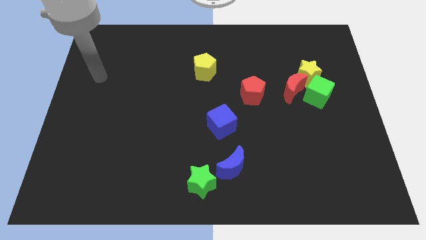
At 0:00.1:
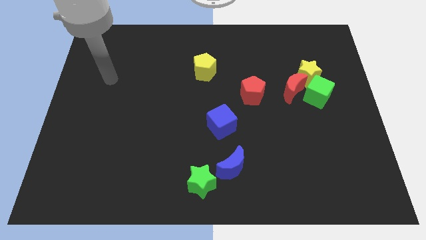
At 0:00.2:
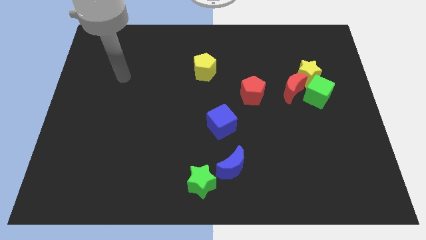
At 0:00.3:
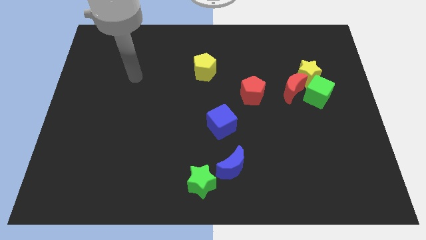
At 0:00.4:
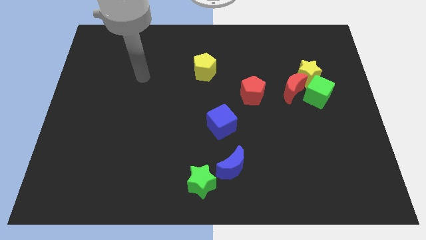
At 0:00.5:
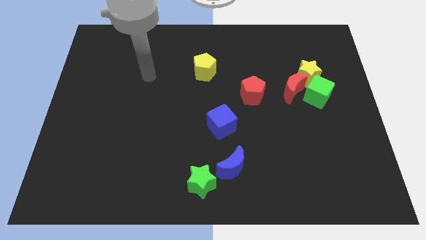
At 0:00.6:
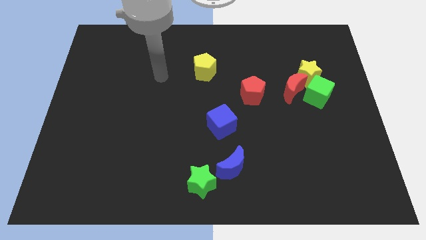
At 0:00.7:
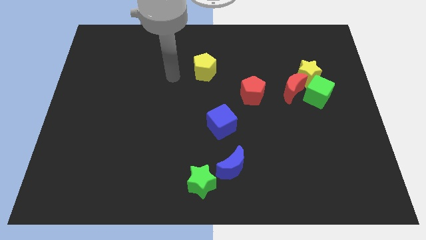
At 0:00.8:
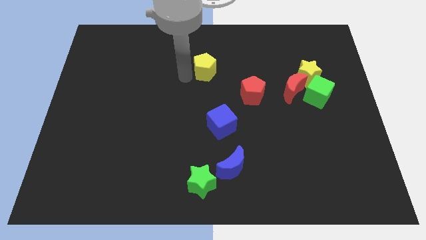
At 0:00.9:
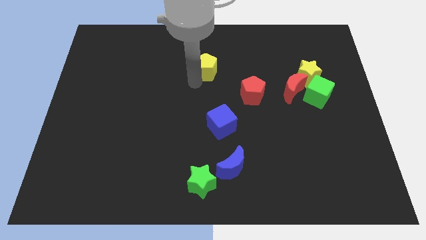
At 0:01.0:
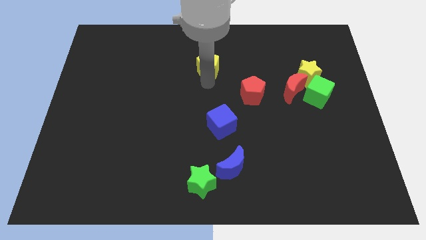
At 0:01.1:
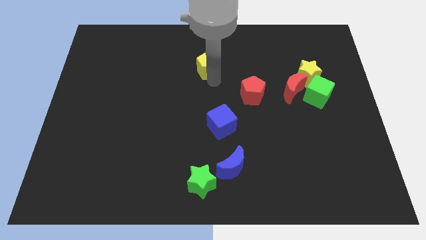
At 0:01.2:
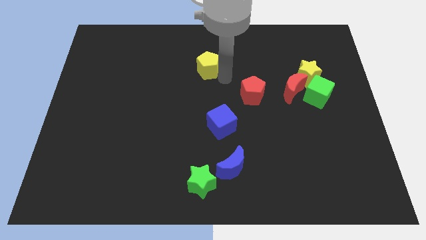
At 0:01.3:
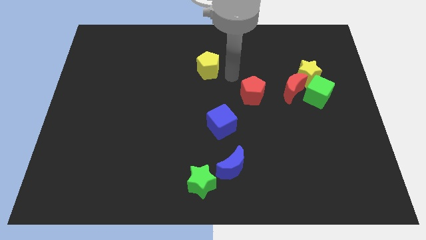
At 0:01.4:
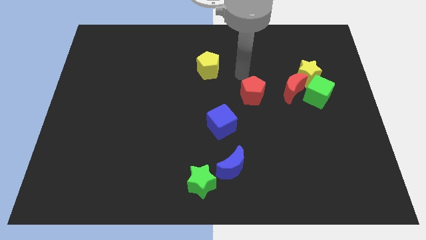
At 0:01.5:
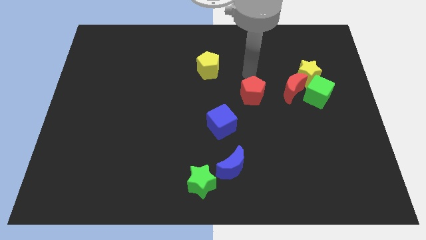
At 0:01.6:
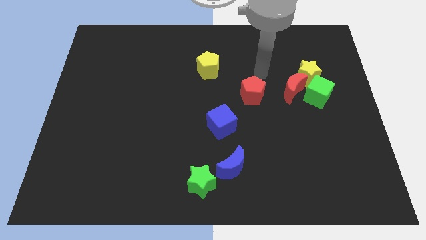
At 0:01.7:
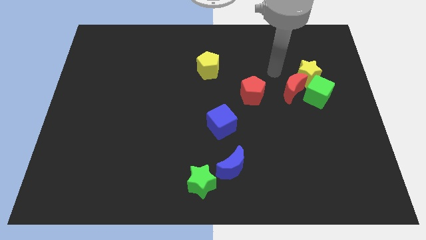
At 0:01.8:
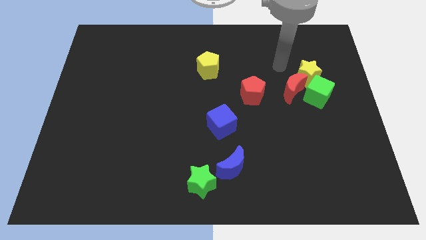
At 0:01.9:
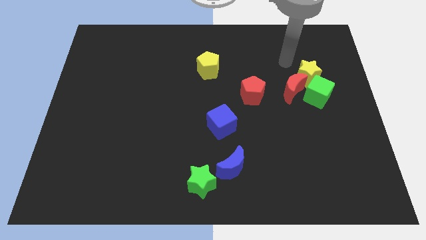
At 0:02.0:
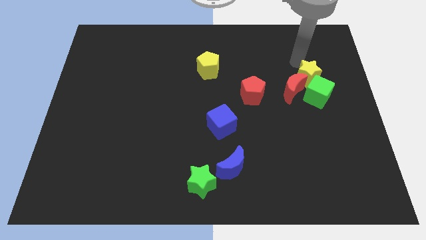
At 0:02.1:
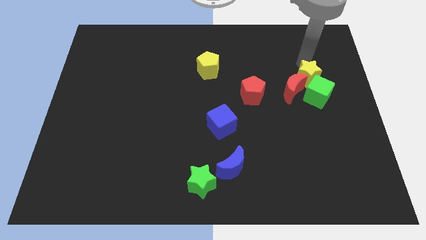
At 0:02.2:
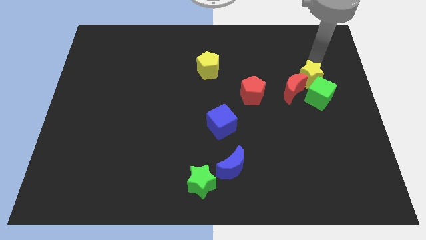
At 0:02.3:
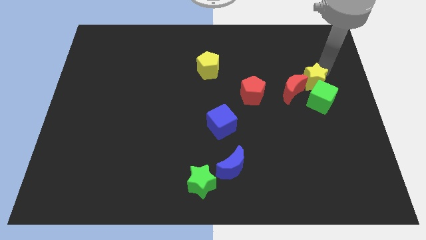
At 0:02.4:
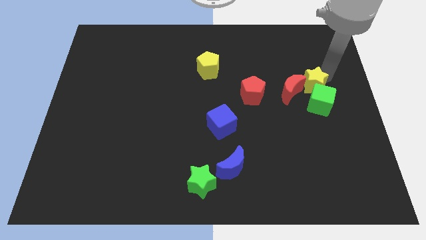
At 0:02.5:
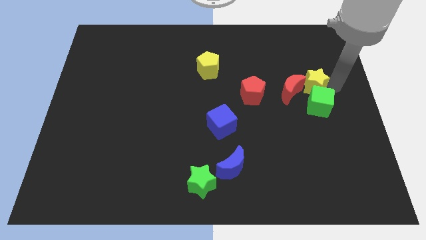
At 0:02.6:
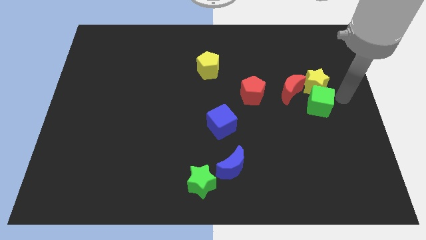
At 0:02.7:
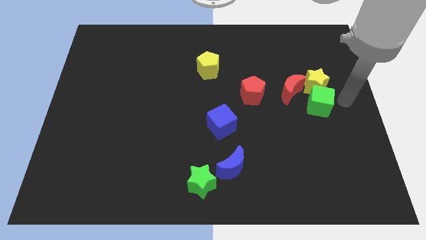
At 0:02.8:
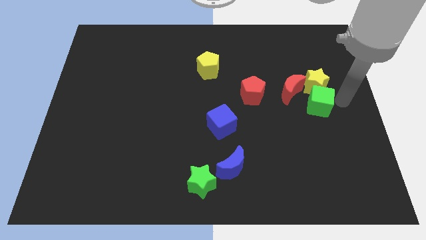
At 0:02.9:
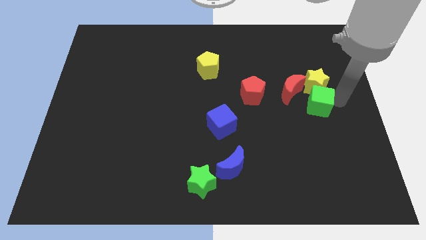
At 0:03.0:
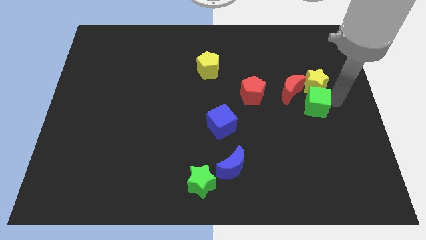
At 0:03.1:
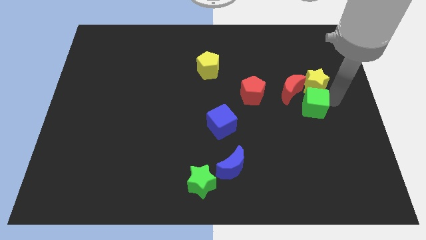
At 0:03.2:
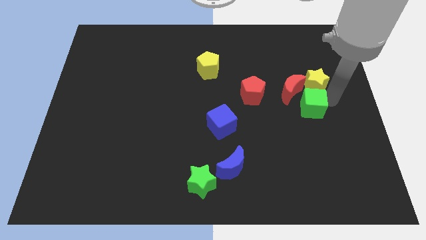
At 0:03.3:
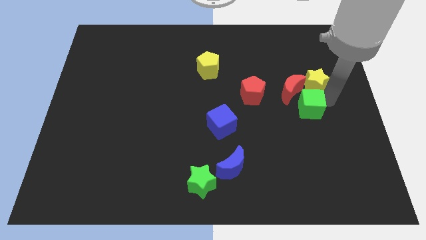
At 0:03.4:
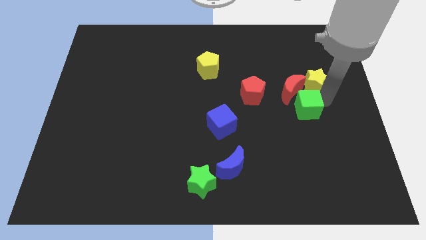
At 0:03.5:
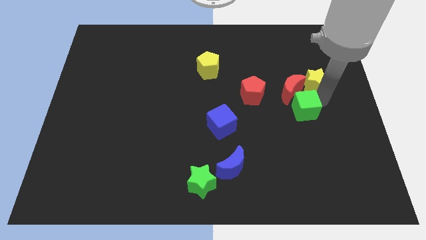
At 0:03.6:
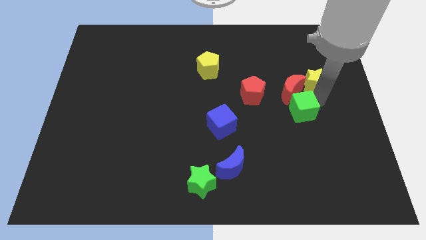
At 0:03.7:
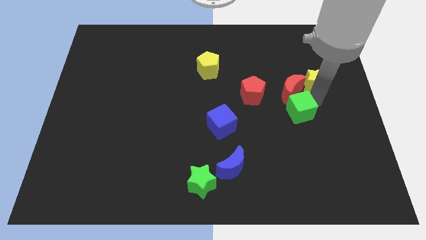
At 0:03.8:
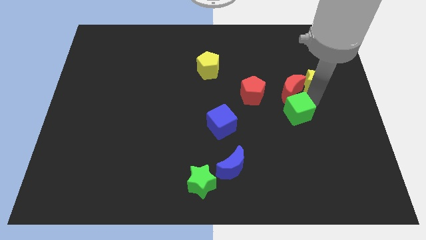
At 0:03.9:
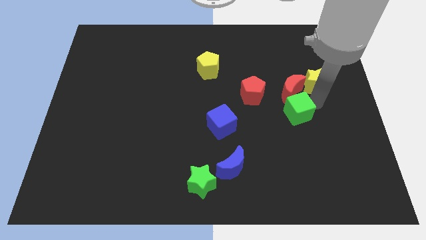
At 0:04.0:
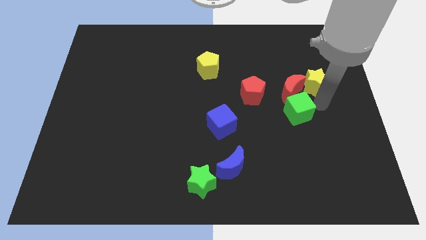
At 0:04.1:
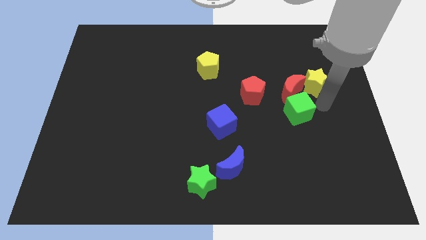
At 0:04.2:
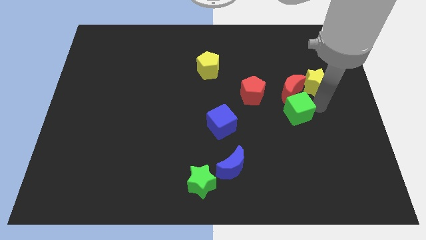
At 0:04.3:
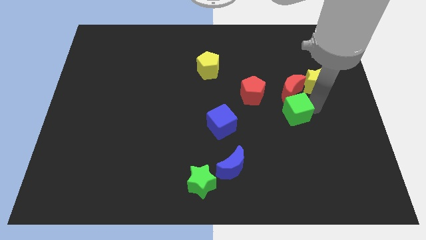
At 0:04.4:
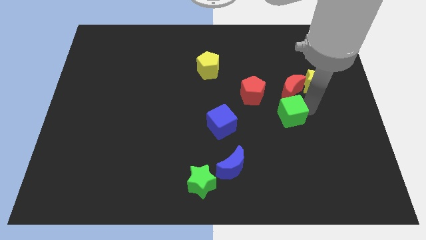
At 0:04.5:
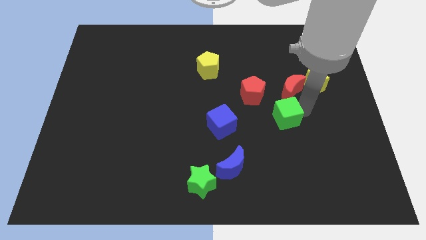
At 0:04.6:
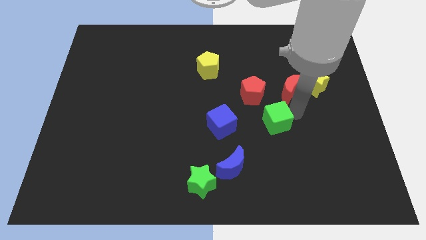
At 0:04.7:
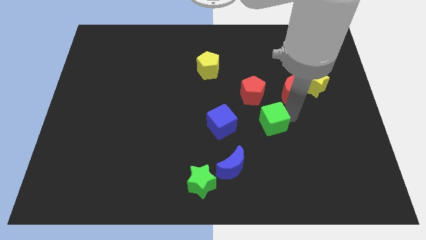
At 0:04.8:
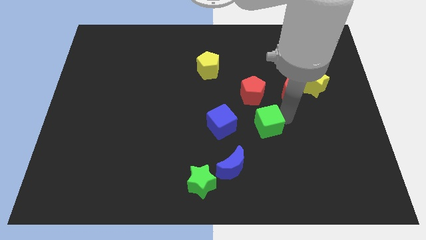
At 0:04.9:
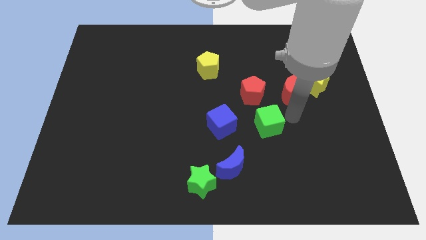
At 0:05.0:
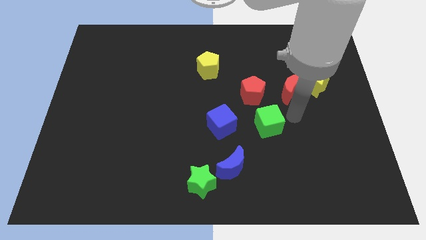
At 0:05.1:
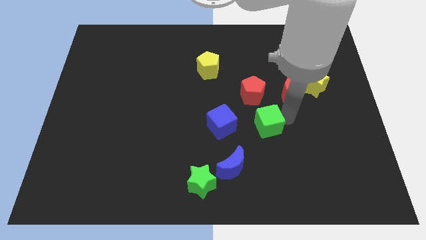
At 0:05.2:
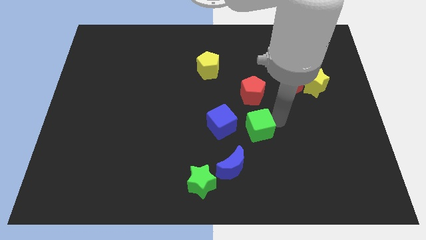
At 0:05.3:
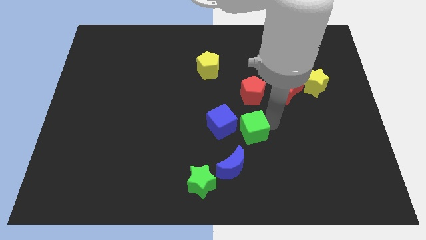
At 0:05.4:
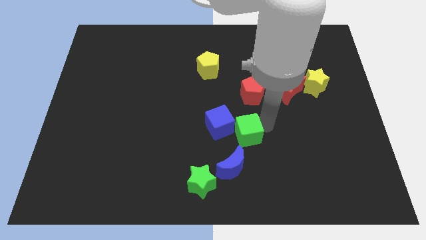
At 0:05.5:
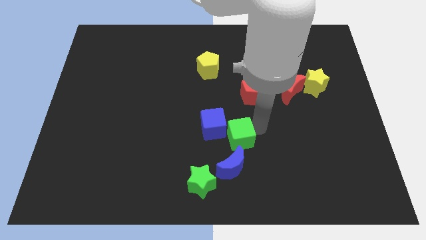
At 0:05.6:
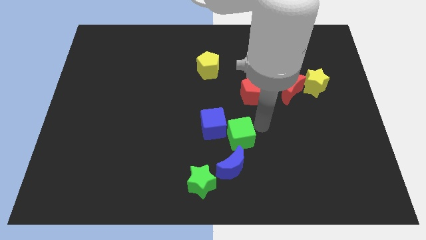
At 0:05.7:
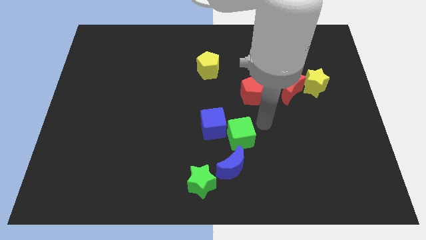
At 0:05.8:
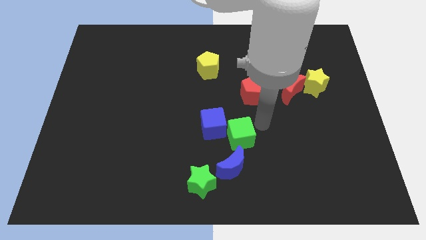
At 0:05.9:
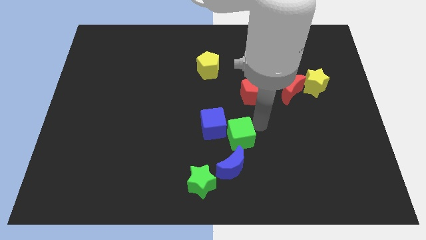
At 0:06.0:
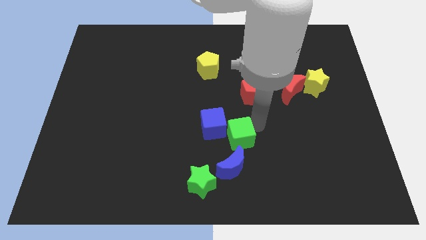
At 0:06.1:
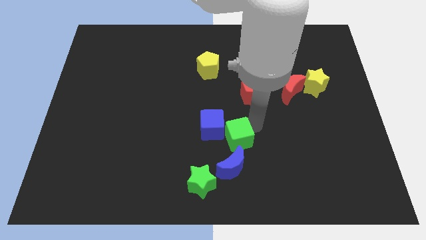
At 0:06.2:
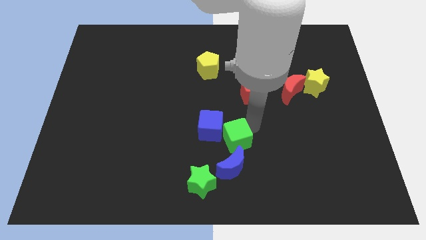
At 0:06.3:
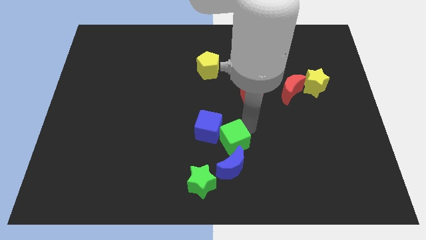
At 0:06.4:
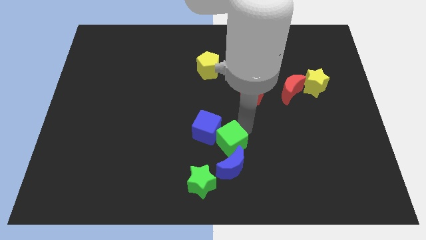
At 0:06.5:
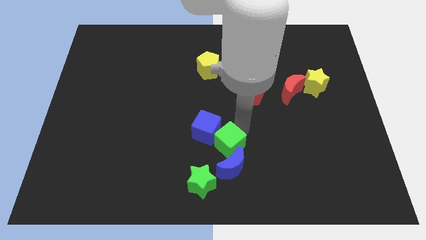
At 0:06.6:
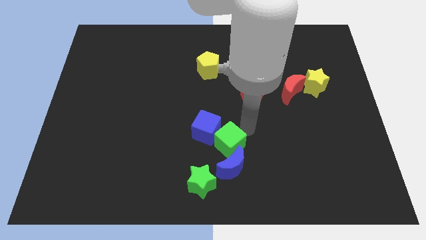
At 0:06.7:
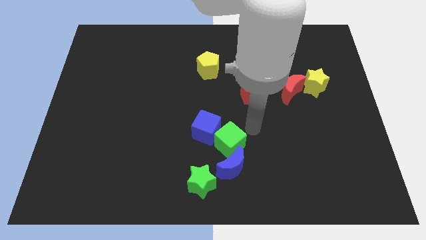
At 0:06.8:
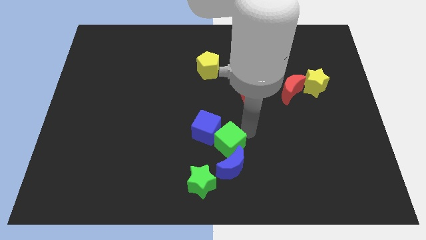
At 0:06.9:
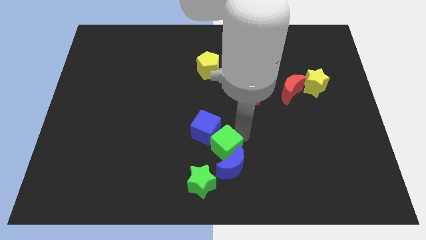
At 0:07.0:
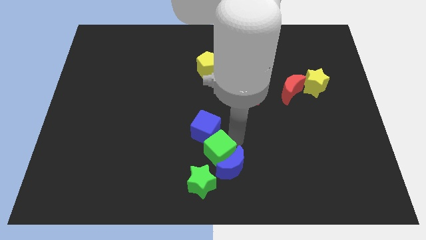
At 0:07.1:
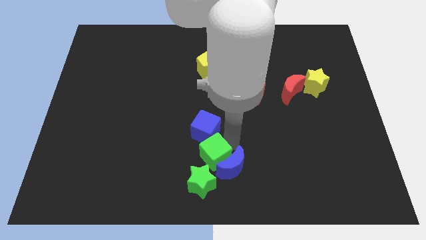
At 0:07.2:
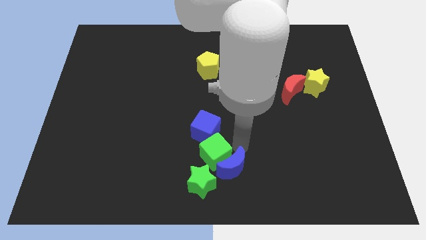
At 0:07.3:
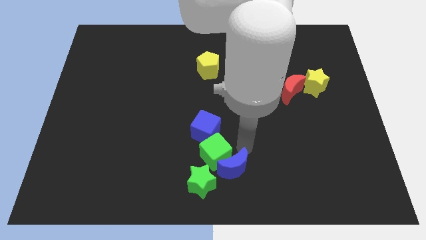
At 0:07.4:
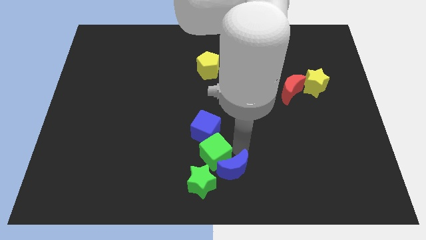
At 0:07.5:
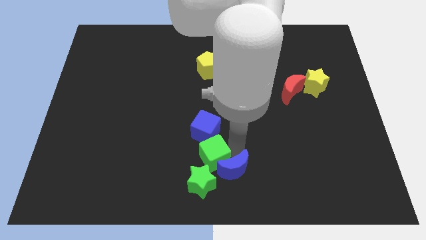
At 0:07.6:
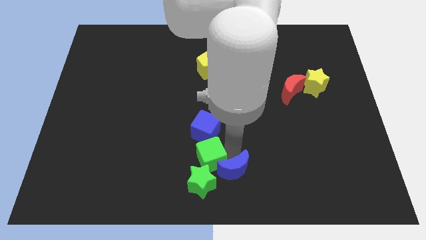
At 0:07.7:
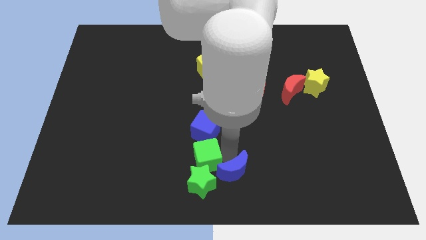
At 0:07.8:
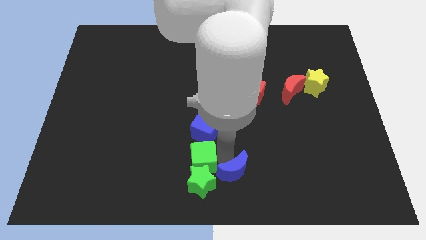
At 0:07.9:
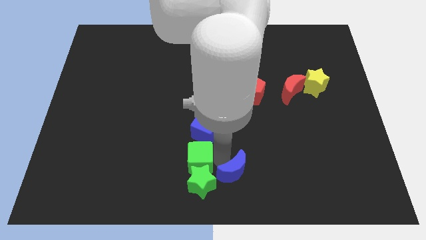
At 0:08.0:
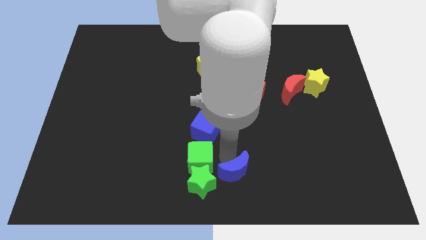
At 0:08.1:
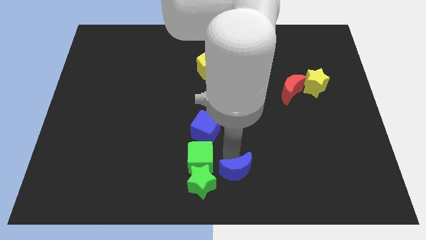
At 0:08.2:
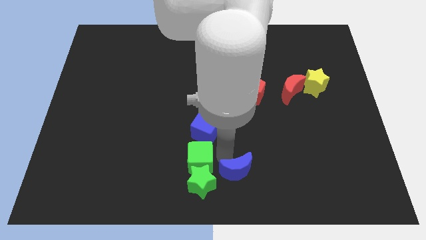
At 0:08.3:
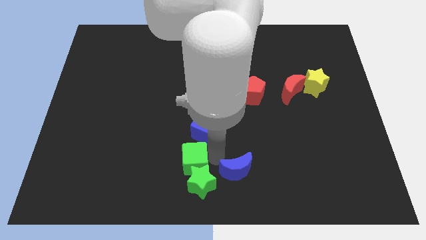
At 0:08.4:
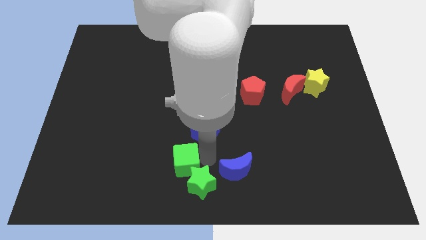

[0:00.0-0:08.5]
push the green cube to the left side of the green star
